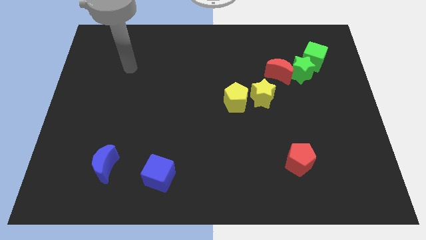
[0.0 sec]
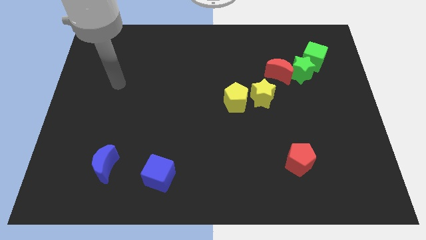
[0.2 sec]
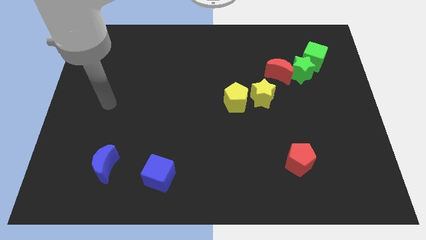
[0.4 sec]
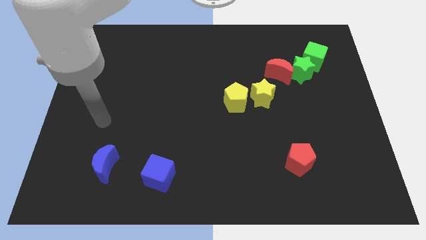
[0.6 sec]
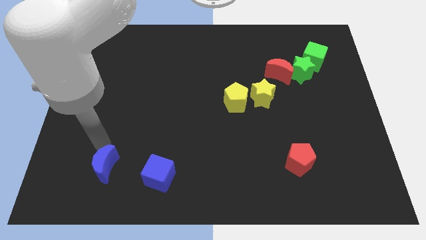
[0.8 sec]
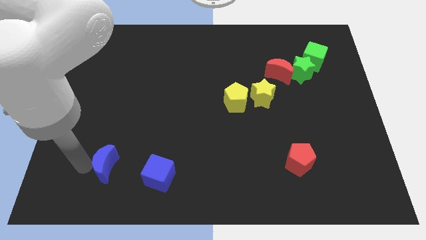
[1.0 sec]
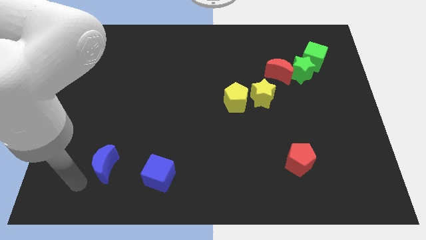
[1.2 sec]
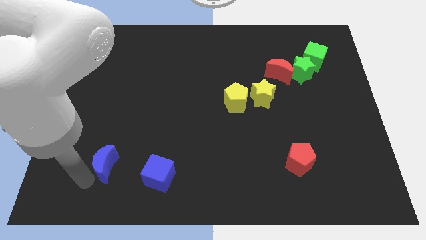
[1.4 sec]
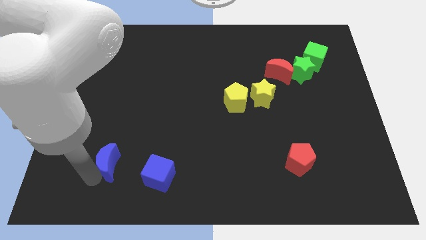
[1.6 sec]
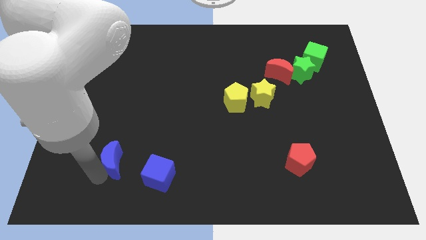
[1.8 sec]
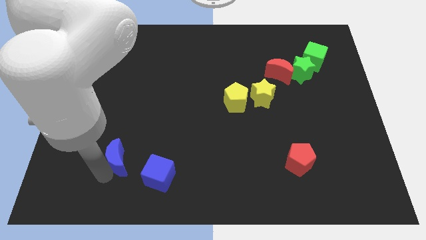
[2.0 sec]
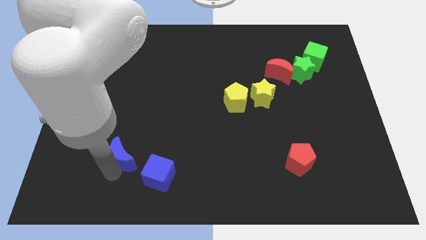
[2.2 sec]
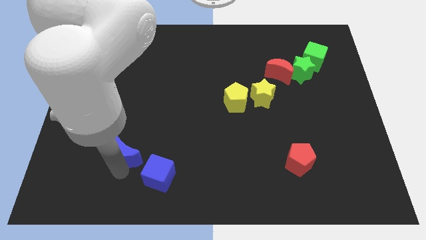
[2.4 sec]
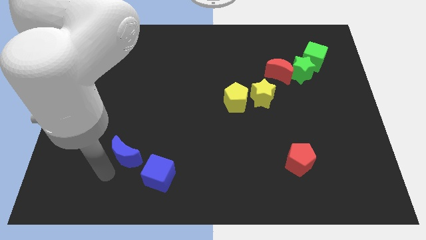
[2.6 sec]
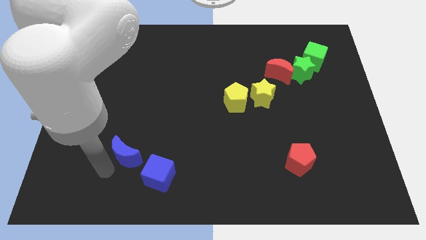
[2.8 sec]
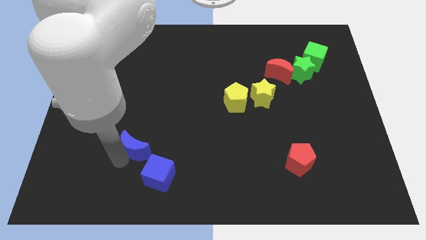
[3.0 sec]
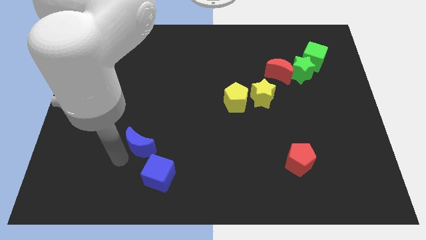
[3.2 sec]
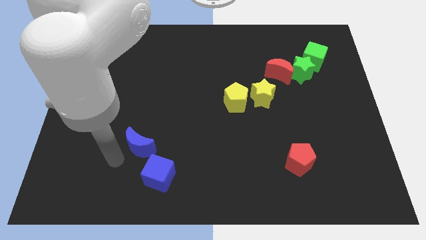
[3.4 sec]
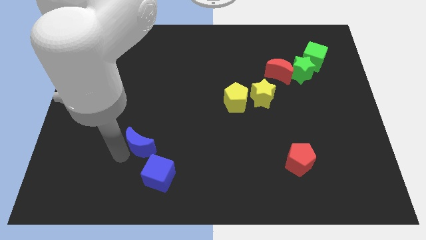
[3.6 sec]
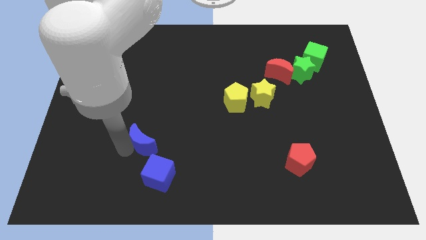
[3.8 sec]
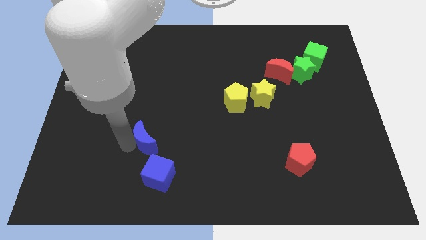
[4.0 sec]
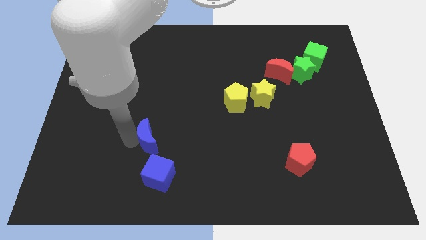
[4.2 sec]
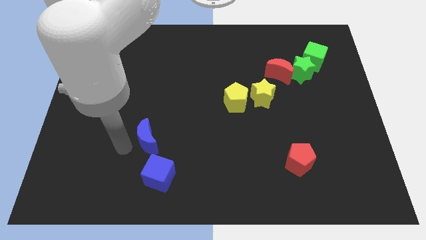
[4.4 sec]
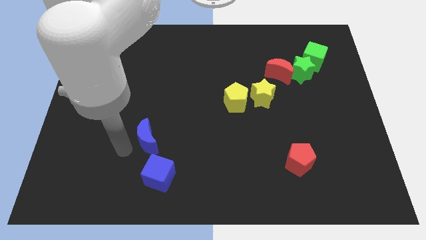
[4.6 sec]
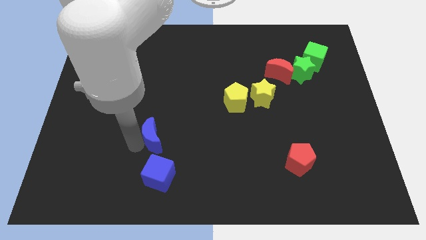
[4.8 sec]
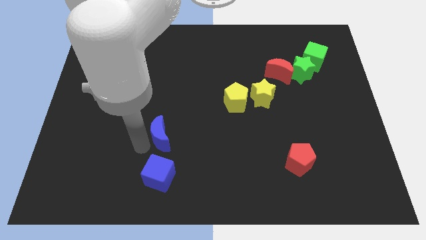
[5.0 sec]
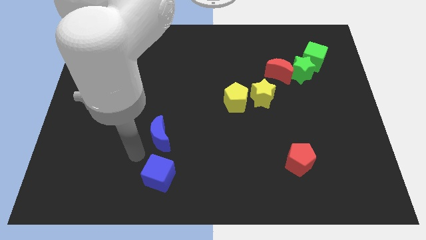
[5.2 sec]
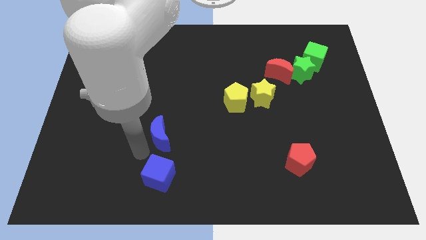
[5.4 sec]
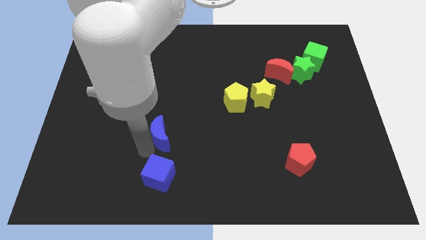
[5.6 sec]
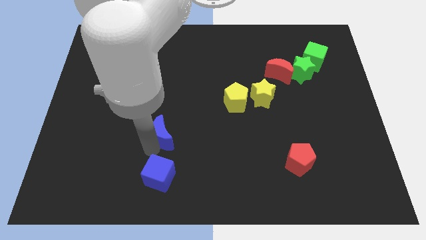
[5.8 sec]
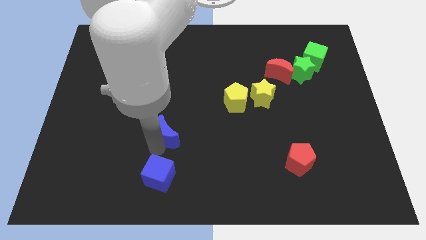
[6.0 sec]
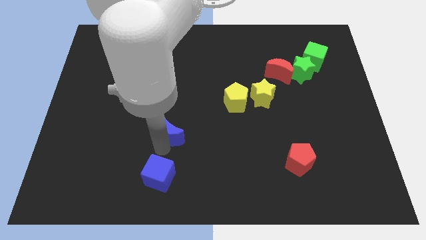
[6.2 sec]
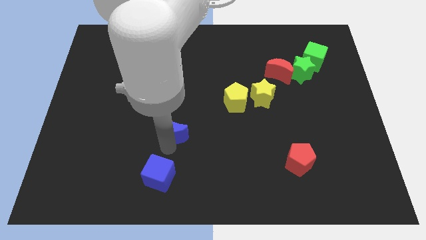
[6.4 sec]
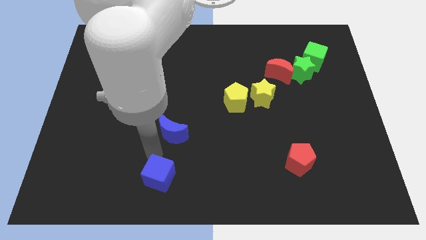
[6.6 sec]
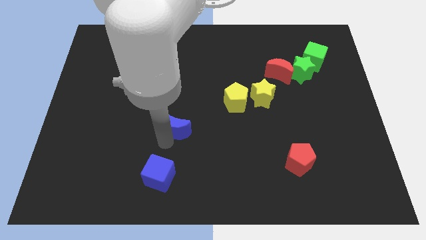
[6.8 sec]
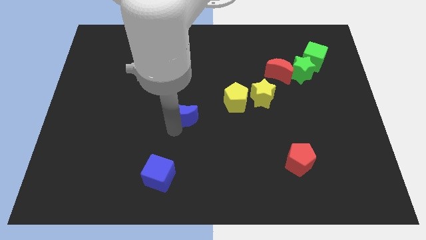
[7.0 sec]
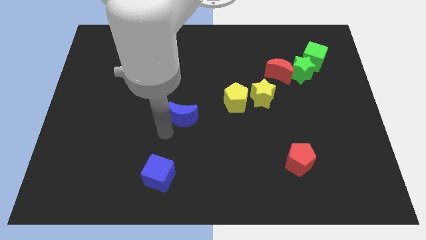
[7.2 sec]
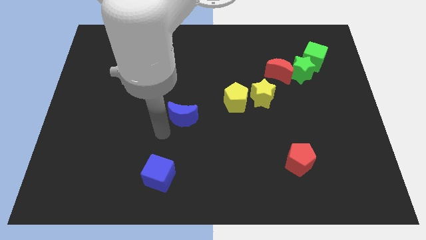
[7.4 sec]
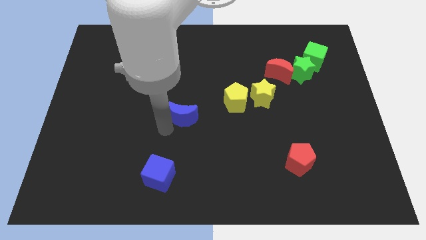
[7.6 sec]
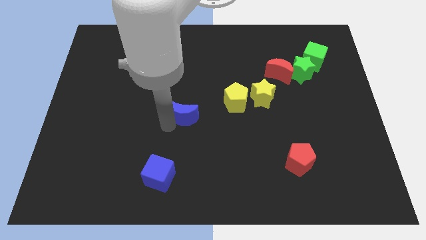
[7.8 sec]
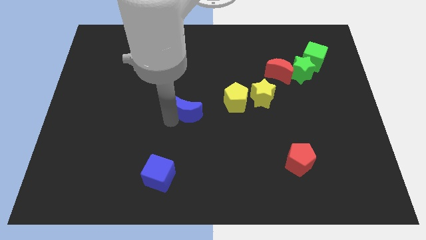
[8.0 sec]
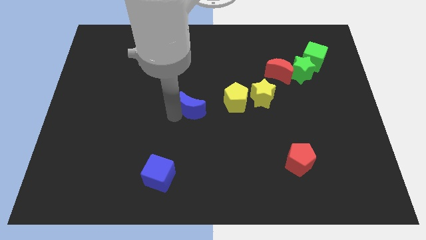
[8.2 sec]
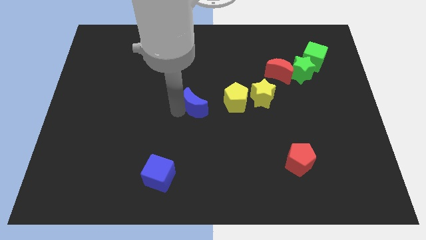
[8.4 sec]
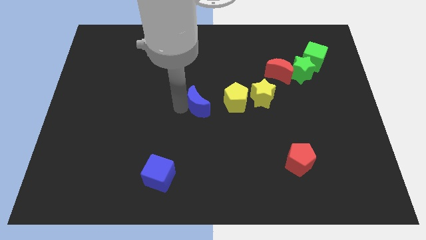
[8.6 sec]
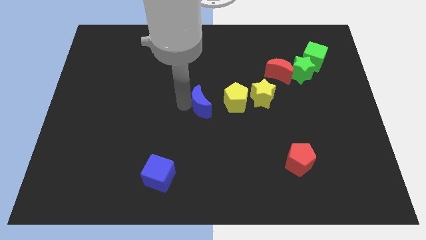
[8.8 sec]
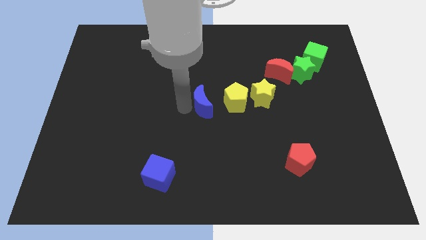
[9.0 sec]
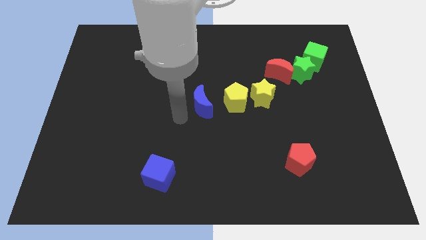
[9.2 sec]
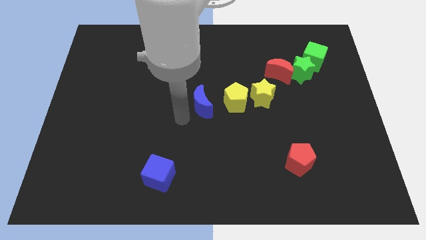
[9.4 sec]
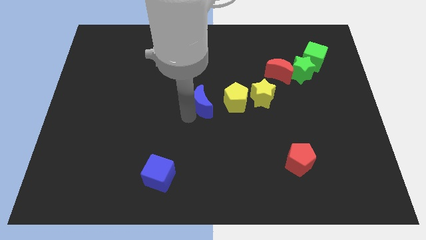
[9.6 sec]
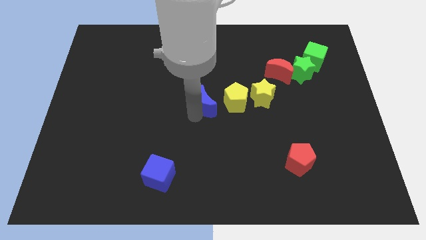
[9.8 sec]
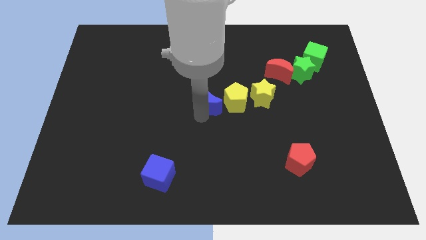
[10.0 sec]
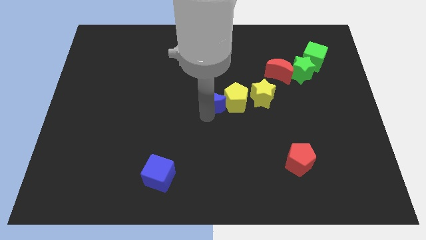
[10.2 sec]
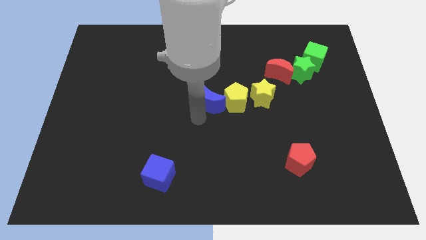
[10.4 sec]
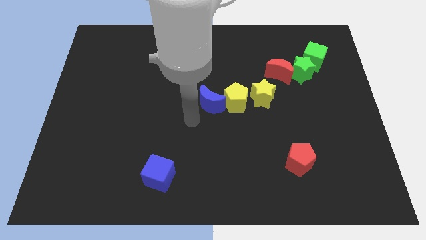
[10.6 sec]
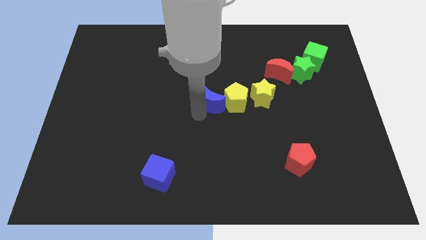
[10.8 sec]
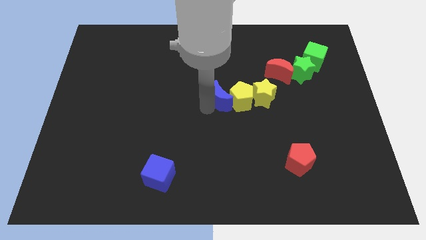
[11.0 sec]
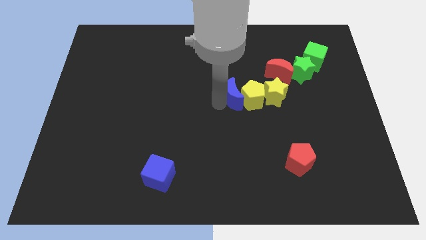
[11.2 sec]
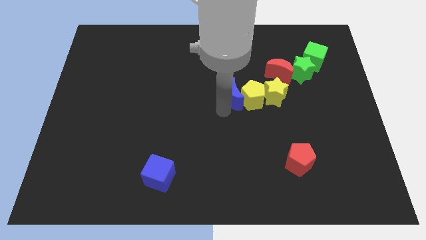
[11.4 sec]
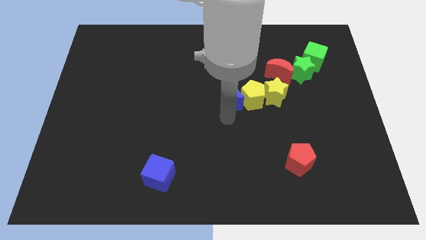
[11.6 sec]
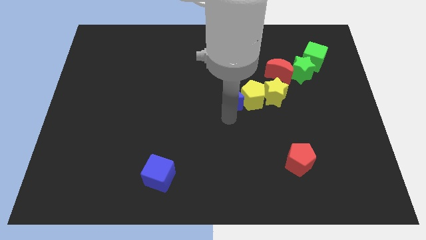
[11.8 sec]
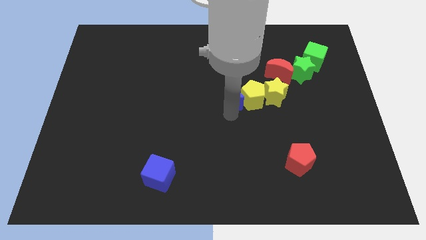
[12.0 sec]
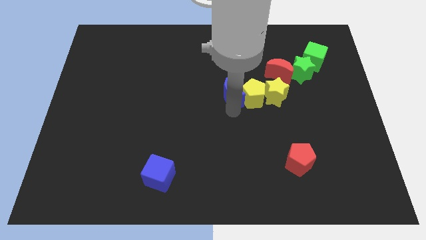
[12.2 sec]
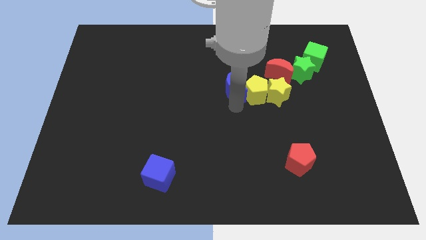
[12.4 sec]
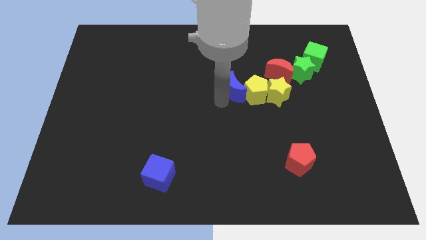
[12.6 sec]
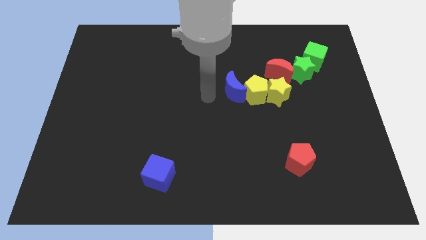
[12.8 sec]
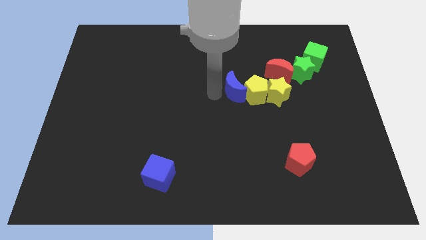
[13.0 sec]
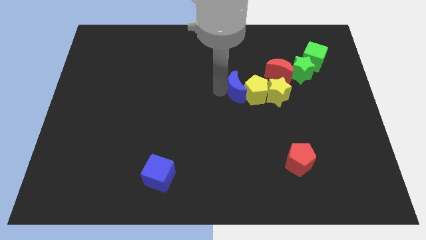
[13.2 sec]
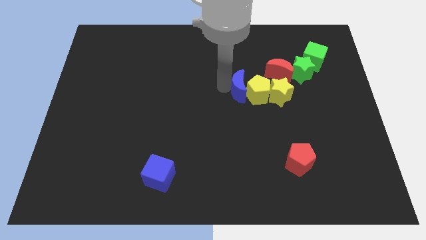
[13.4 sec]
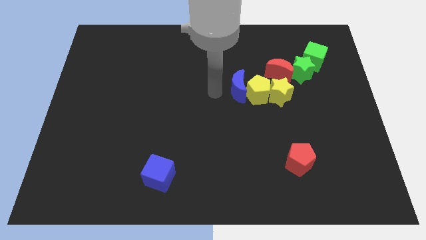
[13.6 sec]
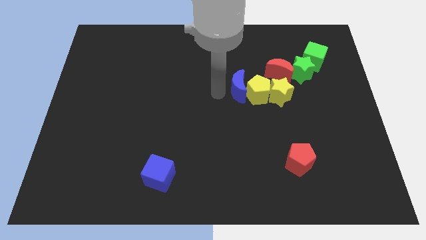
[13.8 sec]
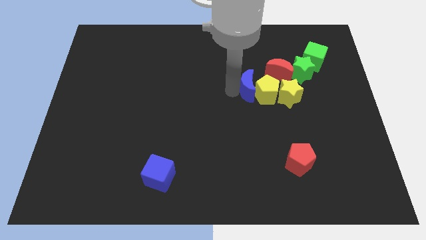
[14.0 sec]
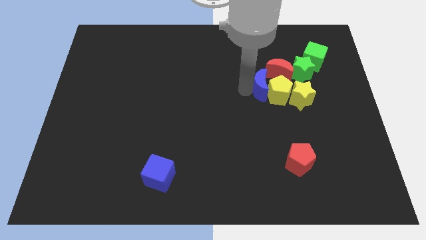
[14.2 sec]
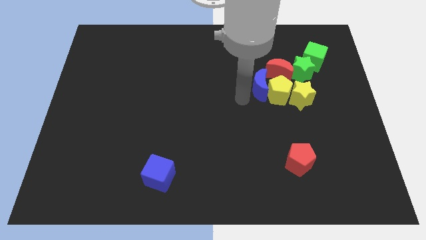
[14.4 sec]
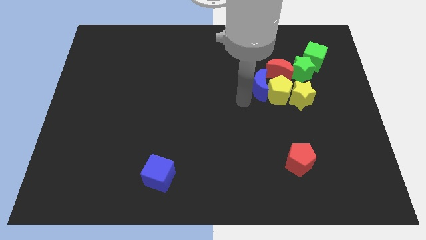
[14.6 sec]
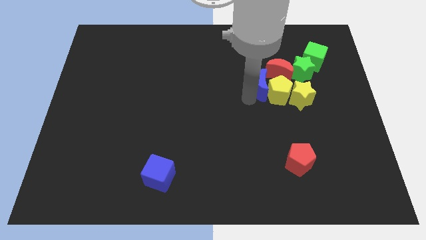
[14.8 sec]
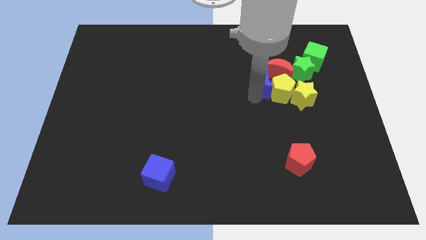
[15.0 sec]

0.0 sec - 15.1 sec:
push the blue moon towards the red moon

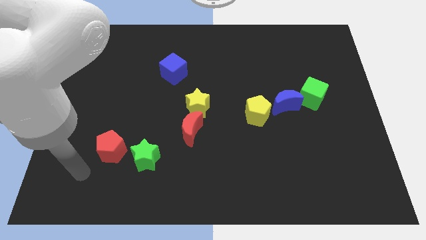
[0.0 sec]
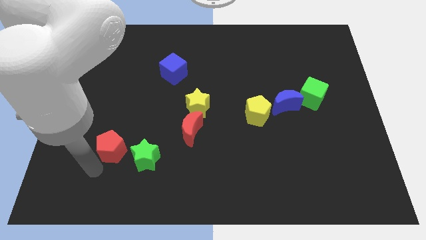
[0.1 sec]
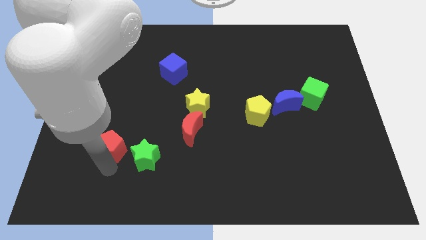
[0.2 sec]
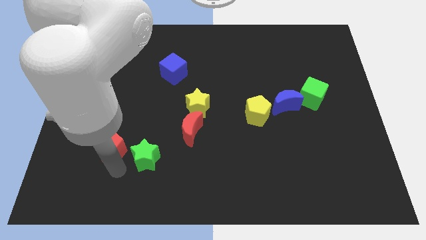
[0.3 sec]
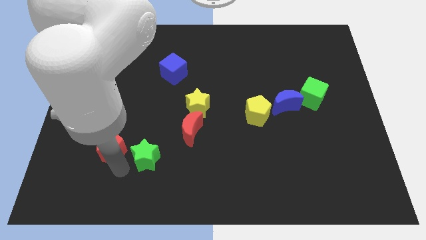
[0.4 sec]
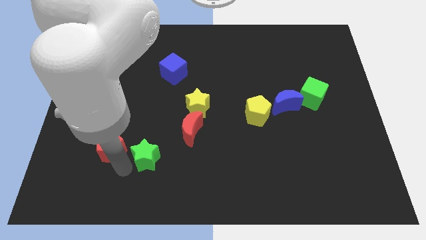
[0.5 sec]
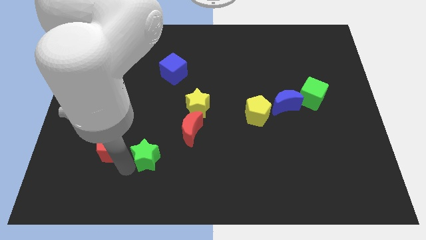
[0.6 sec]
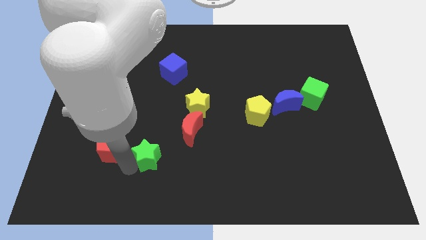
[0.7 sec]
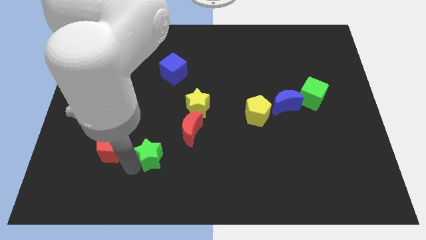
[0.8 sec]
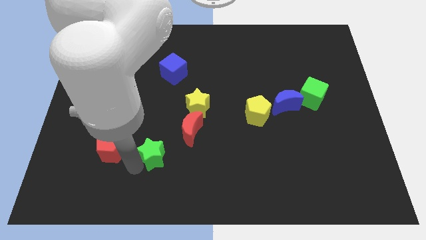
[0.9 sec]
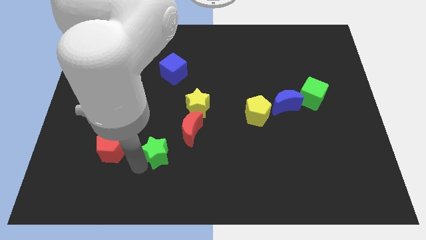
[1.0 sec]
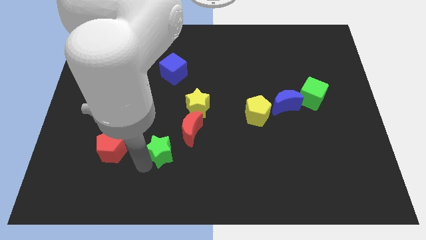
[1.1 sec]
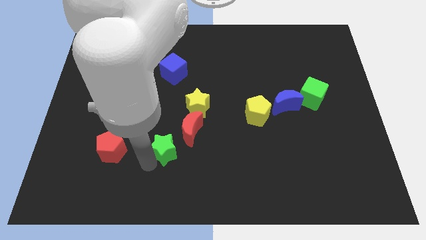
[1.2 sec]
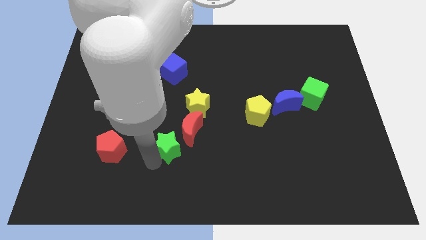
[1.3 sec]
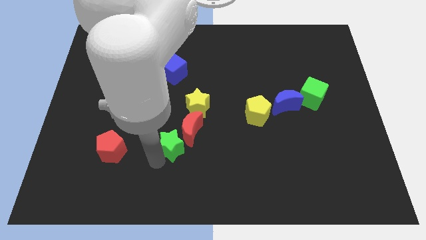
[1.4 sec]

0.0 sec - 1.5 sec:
move the green star close to the red moon
